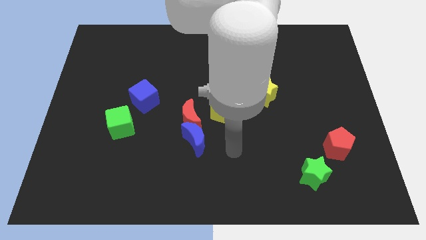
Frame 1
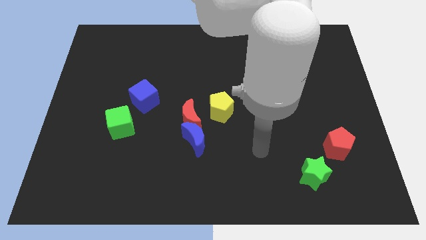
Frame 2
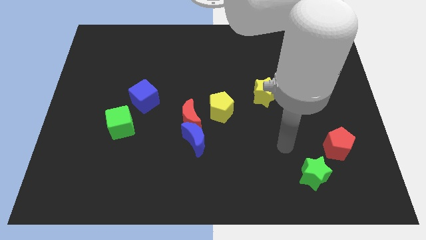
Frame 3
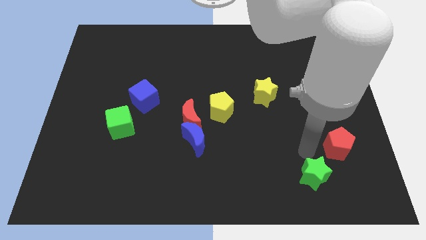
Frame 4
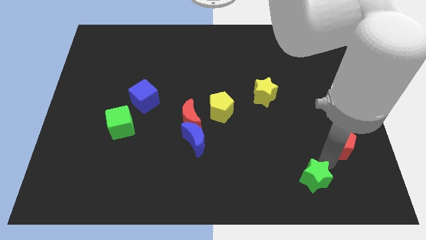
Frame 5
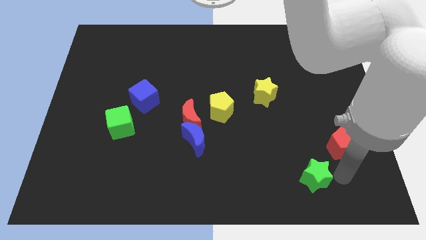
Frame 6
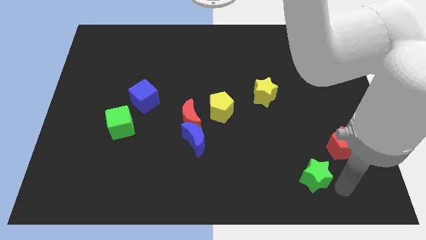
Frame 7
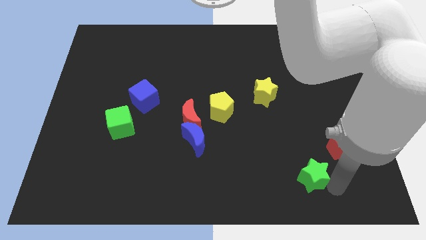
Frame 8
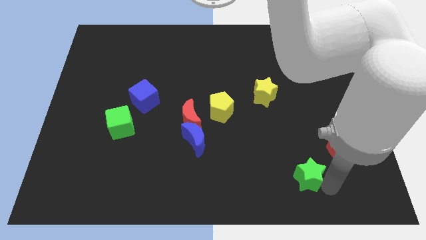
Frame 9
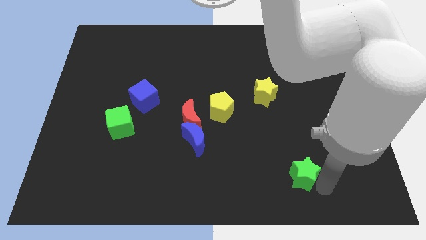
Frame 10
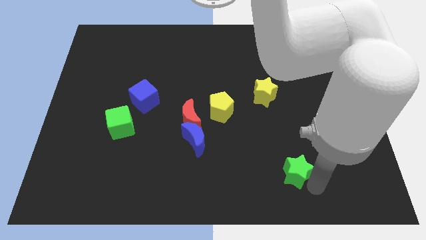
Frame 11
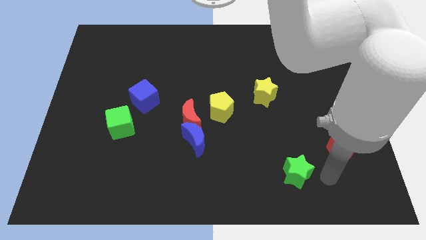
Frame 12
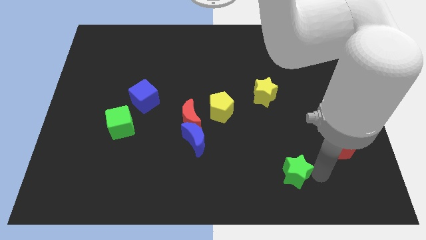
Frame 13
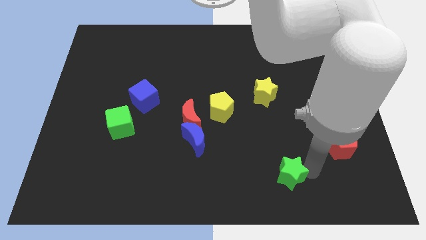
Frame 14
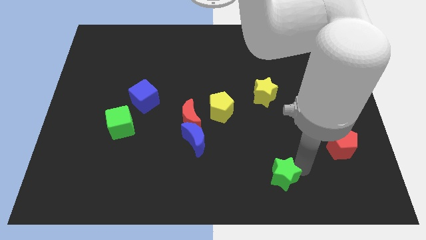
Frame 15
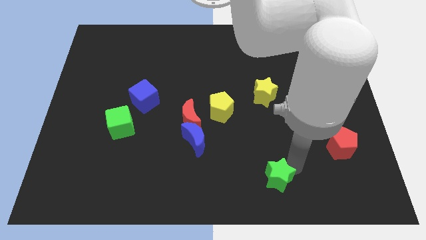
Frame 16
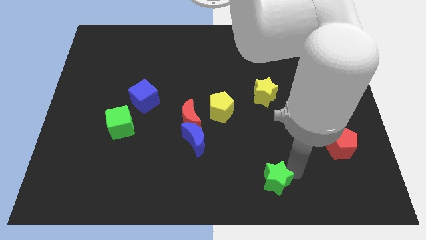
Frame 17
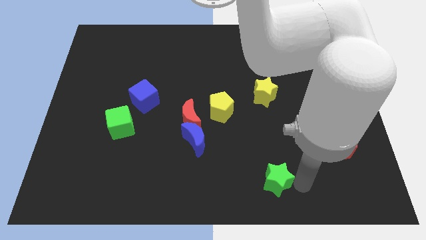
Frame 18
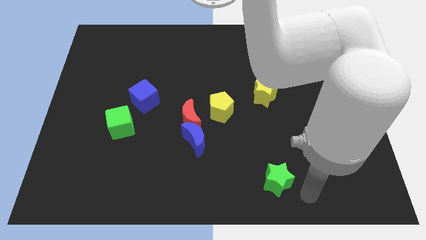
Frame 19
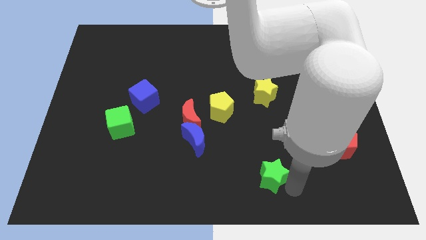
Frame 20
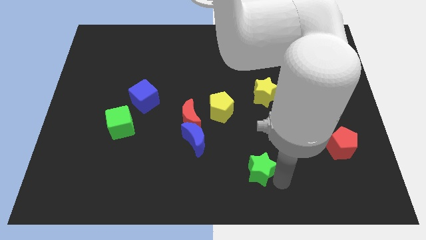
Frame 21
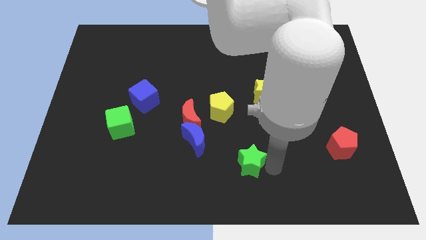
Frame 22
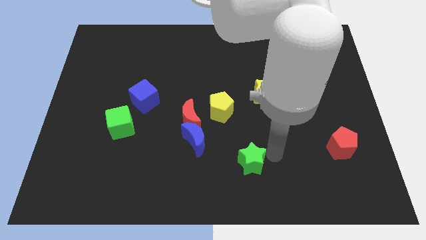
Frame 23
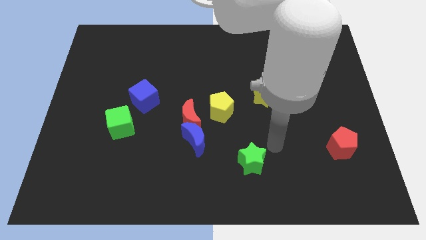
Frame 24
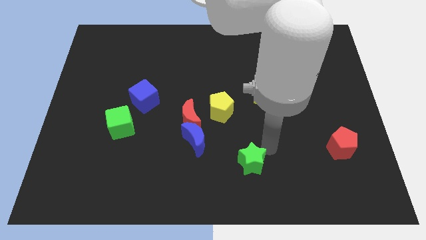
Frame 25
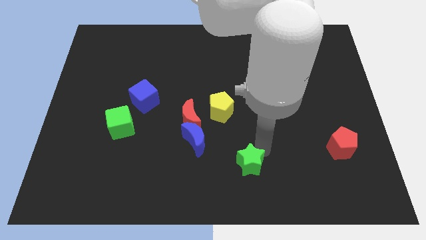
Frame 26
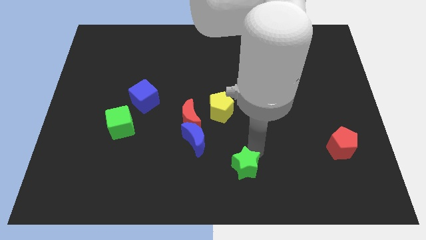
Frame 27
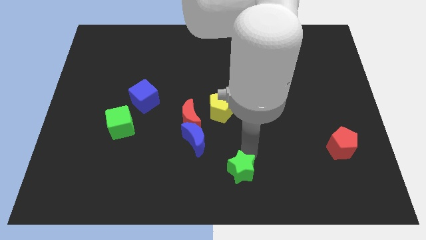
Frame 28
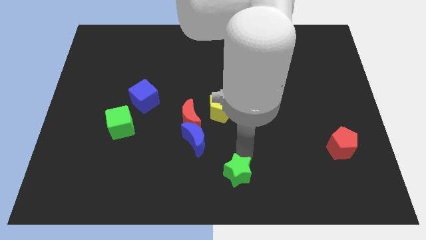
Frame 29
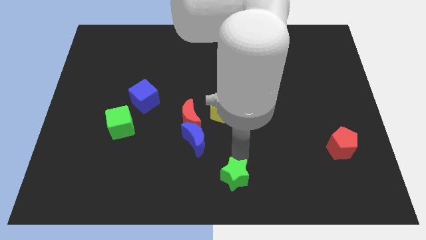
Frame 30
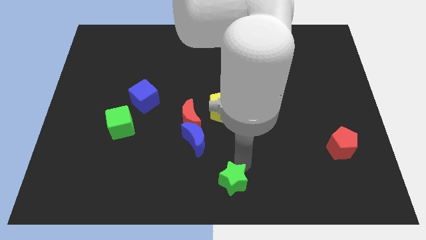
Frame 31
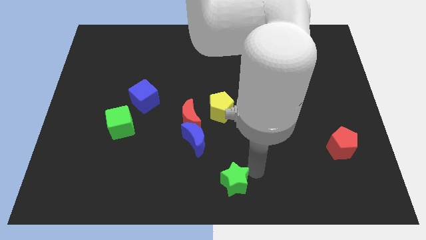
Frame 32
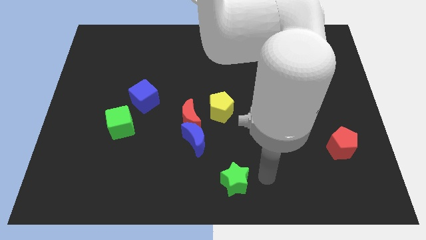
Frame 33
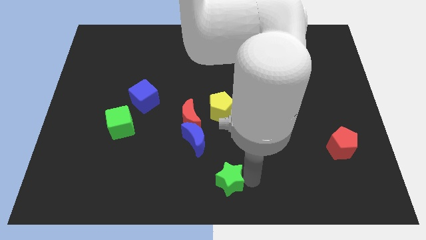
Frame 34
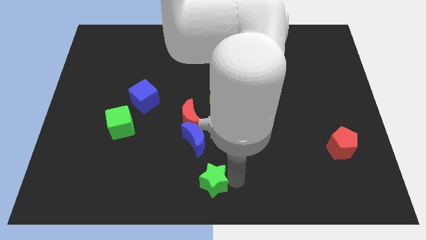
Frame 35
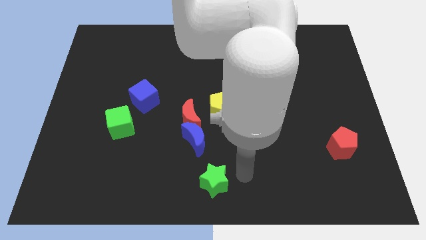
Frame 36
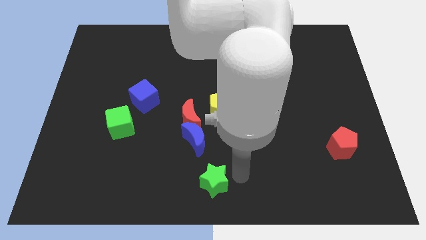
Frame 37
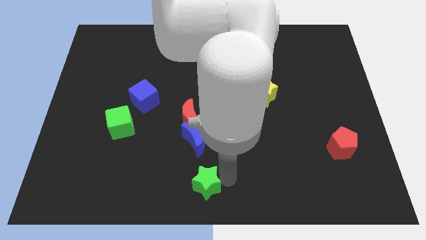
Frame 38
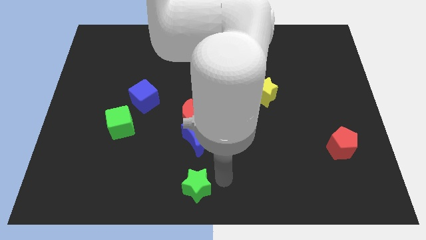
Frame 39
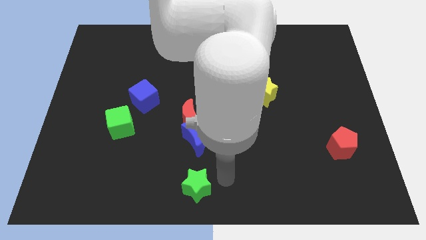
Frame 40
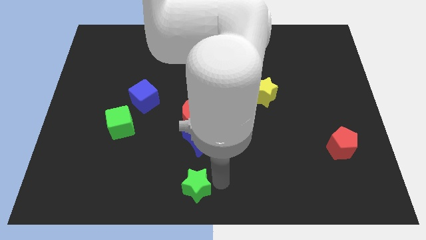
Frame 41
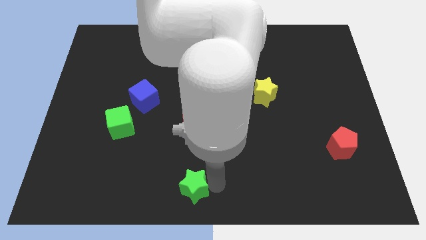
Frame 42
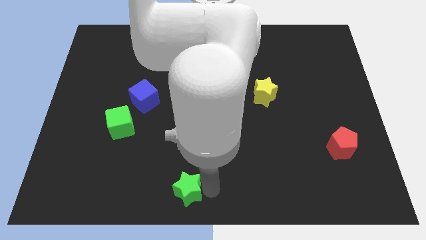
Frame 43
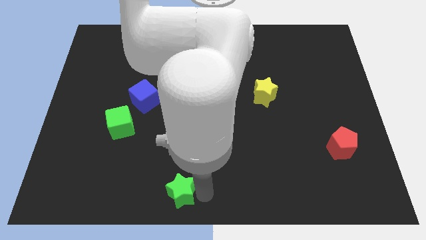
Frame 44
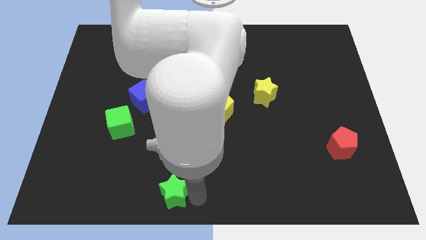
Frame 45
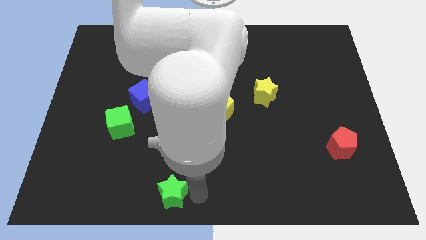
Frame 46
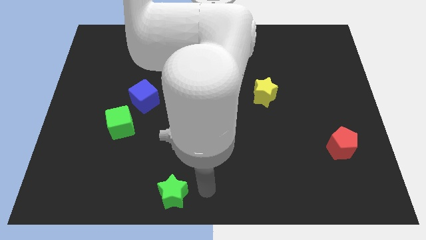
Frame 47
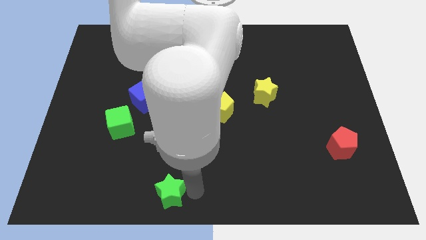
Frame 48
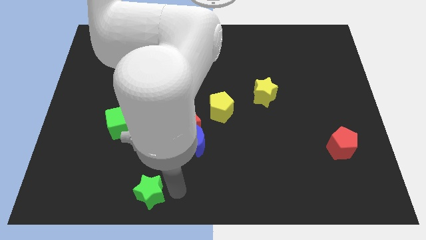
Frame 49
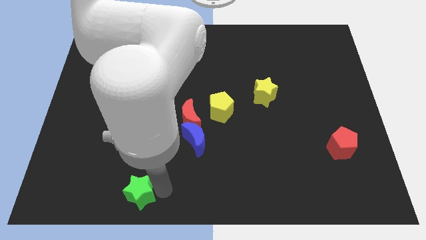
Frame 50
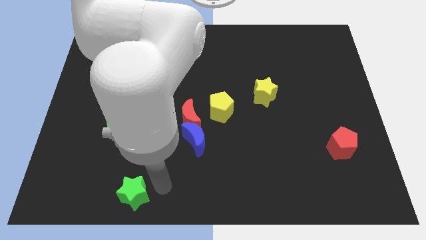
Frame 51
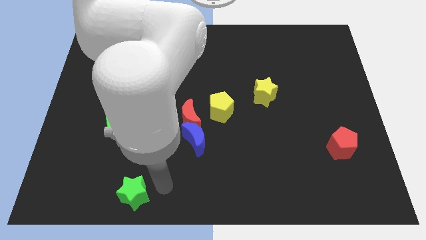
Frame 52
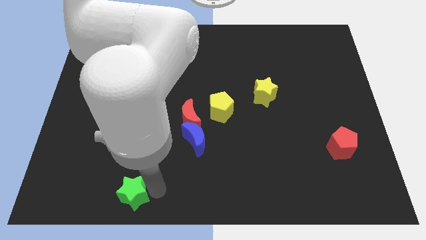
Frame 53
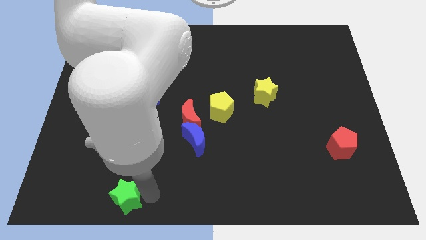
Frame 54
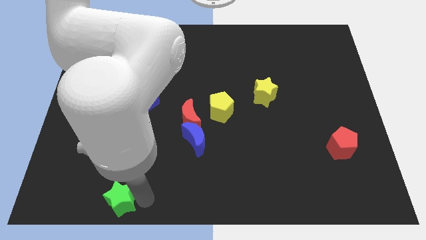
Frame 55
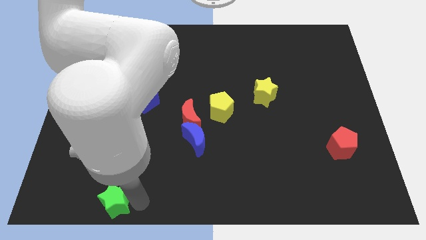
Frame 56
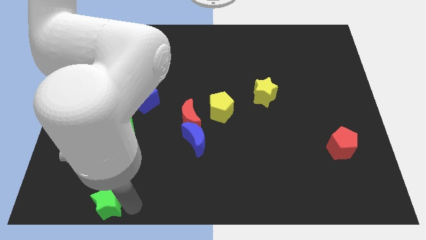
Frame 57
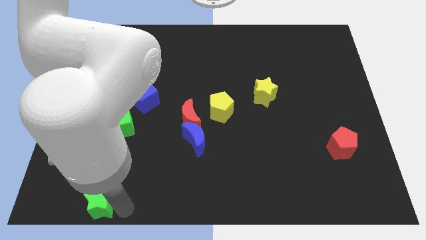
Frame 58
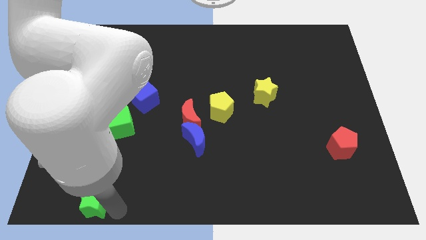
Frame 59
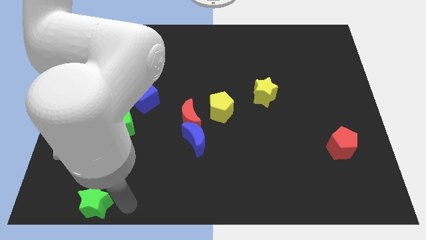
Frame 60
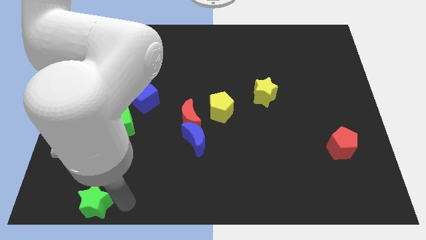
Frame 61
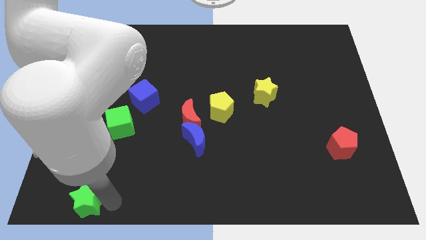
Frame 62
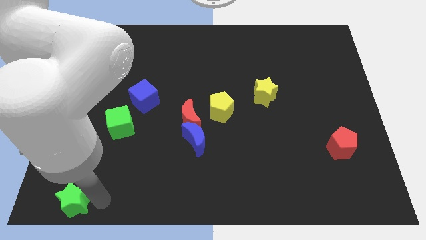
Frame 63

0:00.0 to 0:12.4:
push the green star to the lower left corner

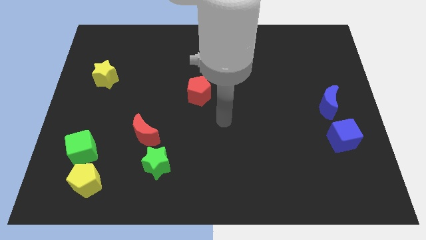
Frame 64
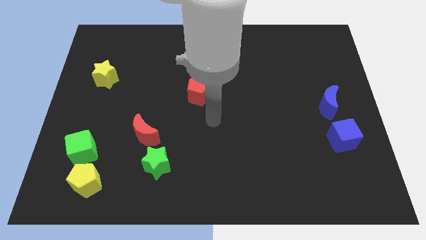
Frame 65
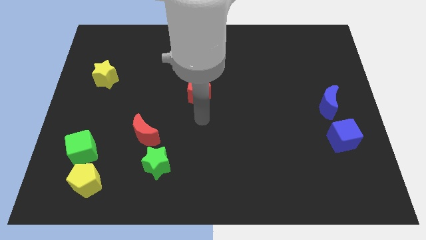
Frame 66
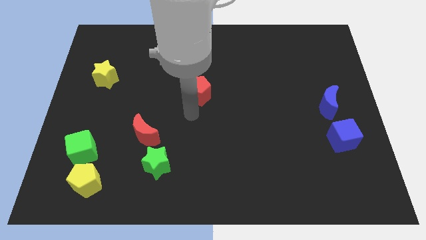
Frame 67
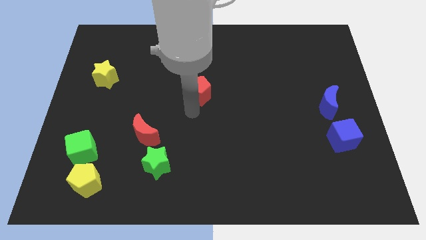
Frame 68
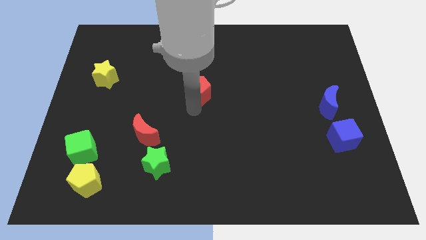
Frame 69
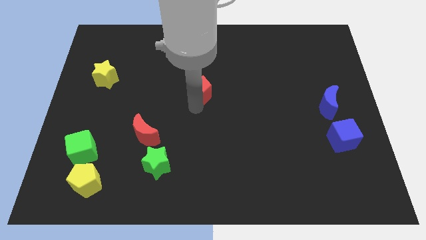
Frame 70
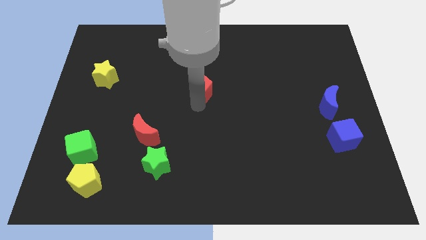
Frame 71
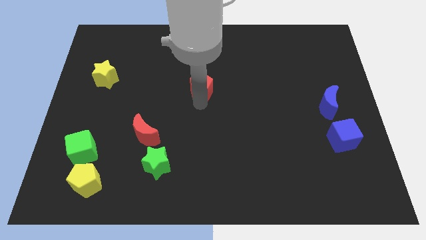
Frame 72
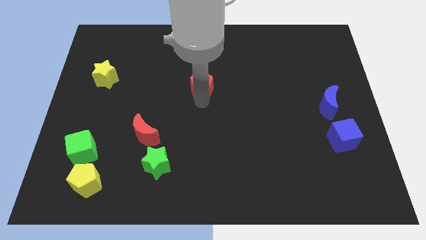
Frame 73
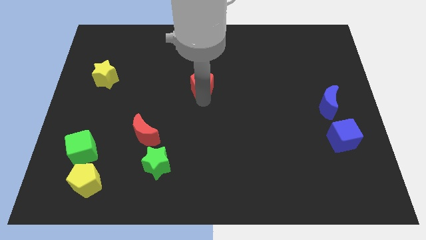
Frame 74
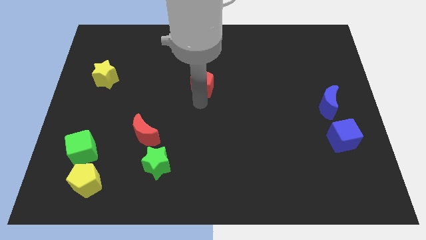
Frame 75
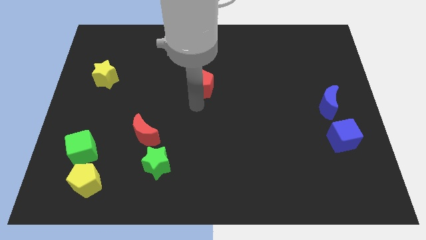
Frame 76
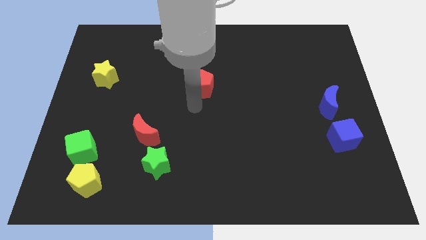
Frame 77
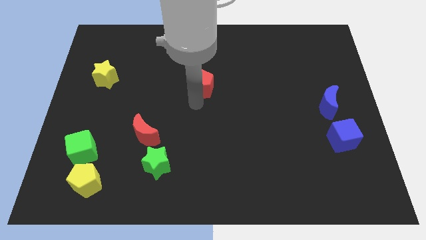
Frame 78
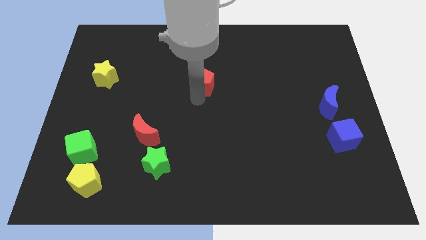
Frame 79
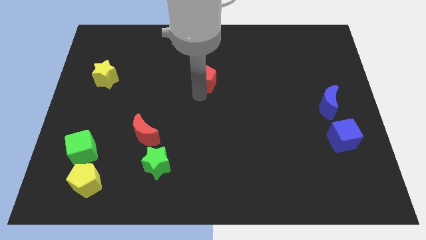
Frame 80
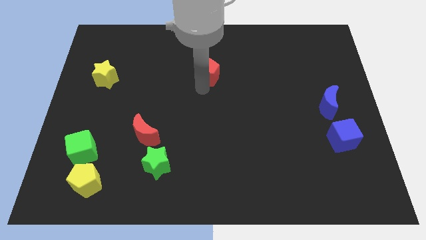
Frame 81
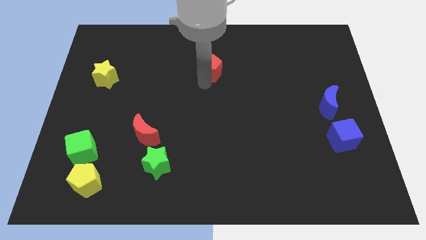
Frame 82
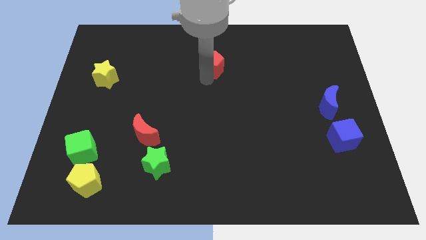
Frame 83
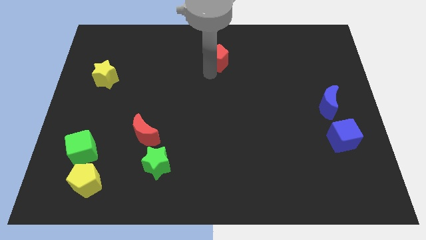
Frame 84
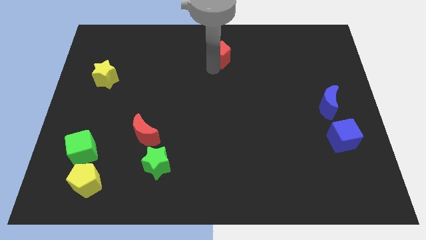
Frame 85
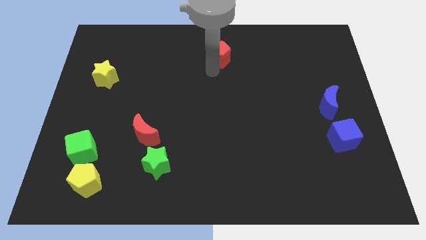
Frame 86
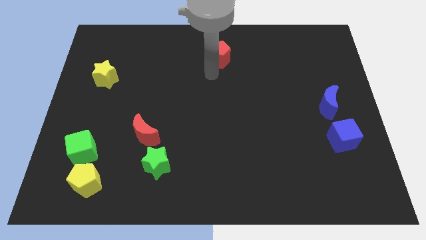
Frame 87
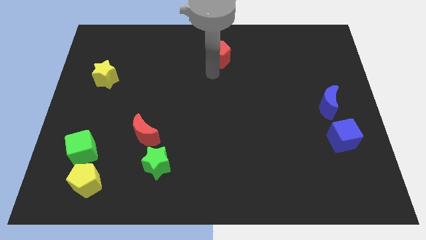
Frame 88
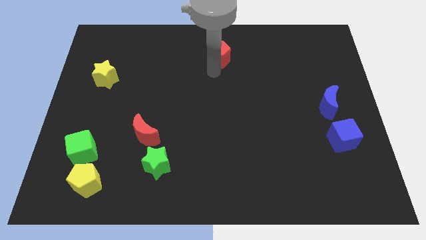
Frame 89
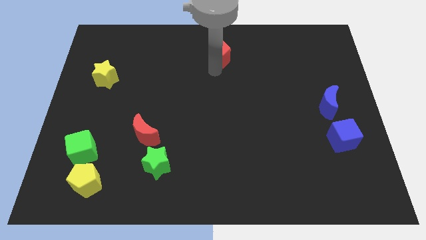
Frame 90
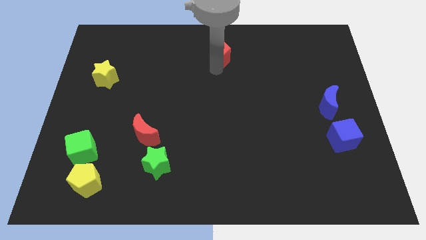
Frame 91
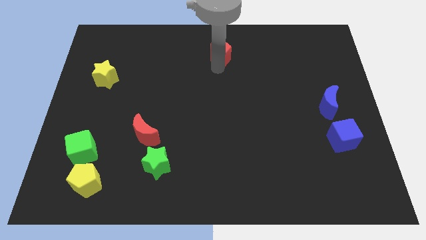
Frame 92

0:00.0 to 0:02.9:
put the red pentagon to the top side
